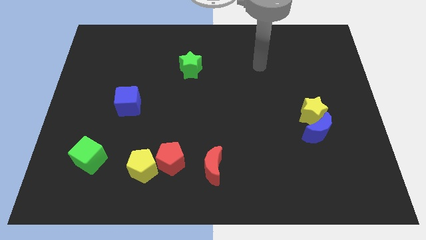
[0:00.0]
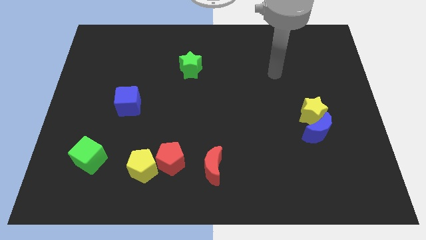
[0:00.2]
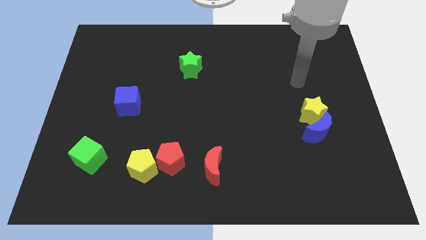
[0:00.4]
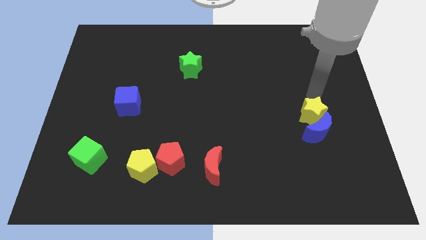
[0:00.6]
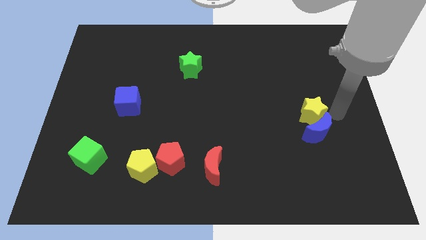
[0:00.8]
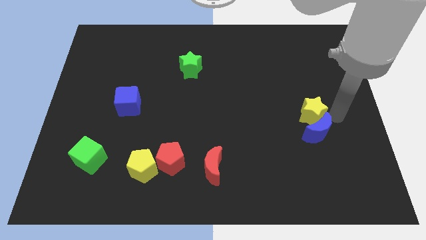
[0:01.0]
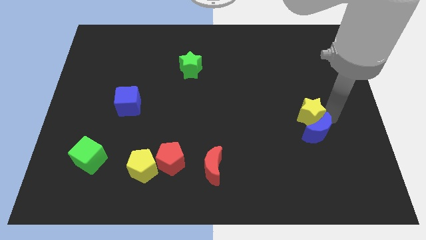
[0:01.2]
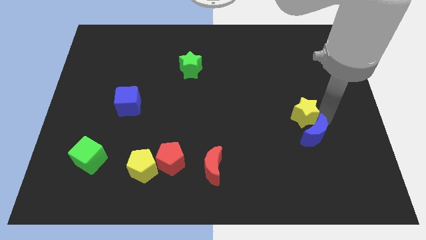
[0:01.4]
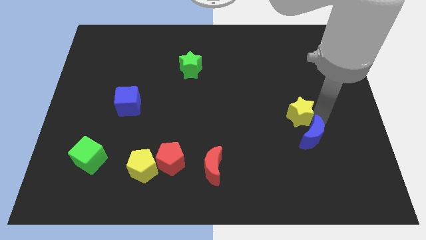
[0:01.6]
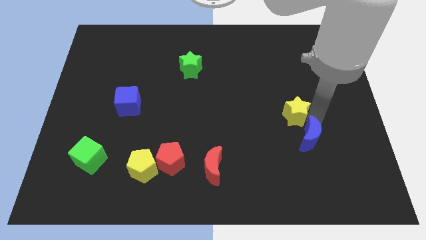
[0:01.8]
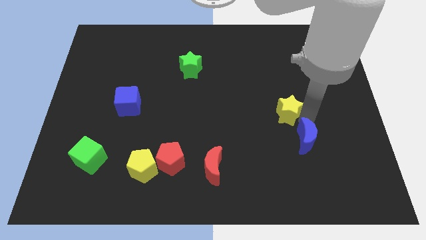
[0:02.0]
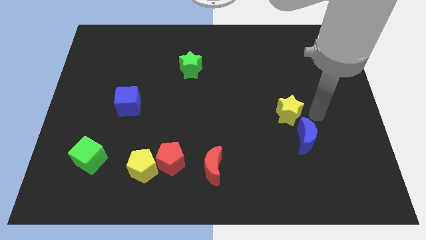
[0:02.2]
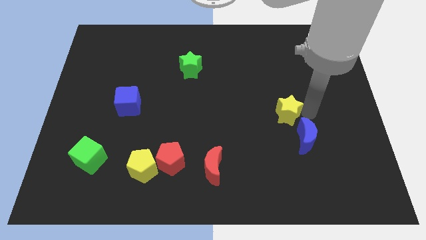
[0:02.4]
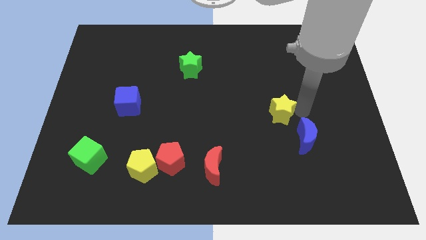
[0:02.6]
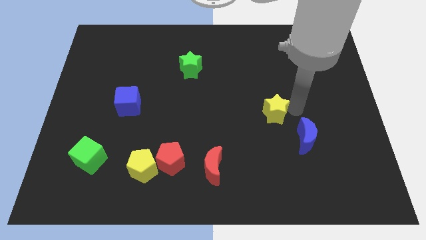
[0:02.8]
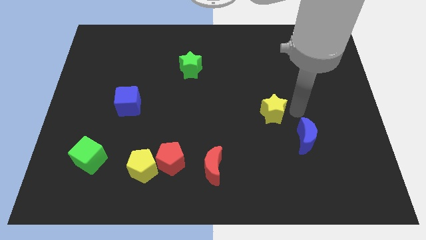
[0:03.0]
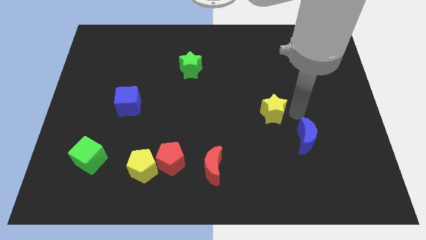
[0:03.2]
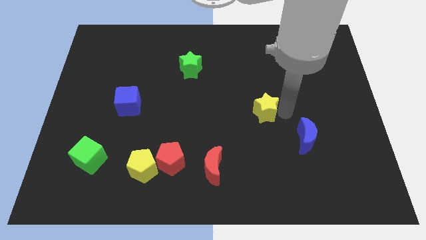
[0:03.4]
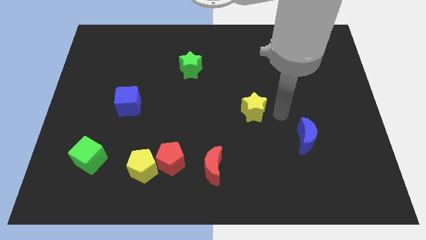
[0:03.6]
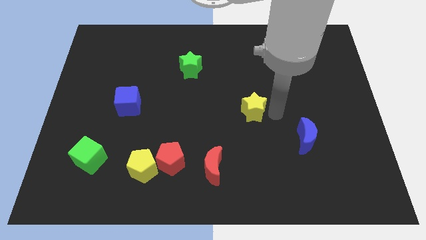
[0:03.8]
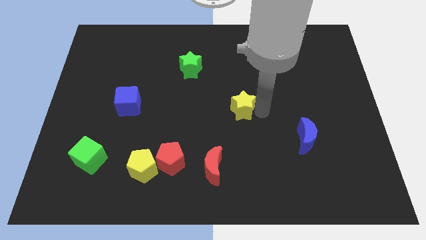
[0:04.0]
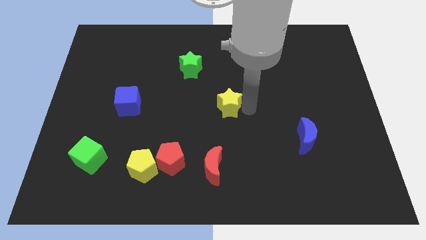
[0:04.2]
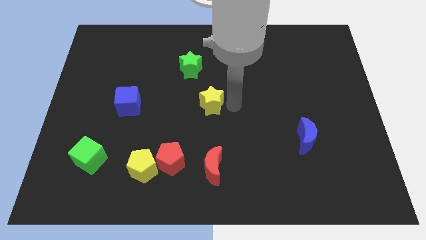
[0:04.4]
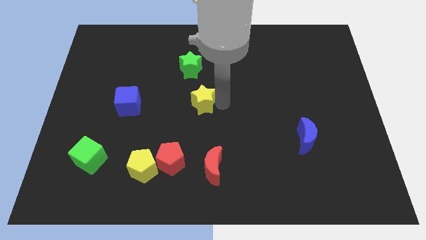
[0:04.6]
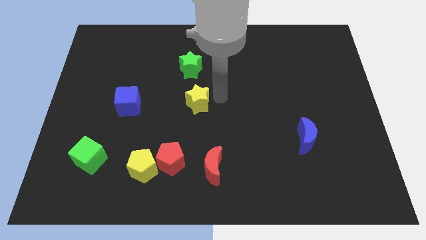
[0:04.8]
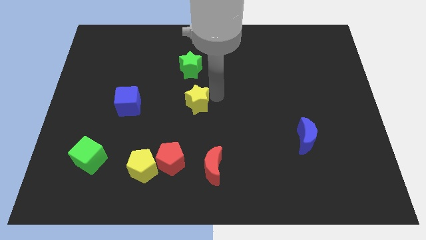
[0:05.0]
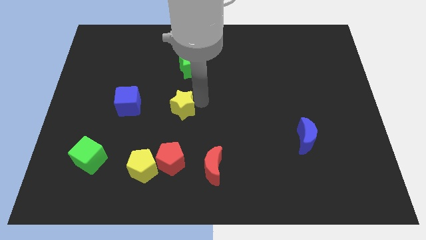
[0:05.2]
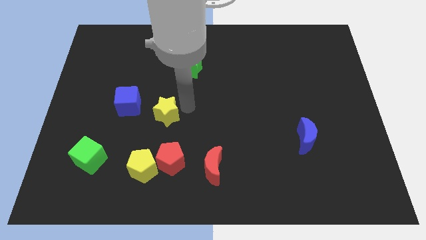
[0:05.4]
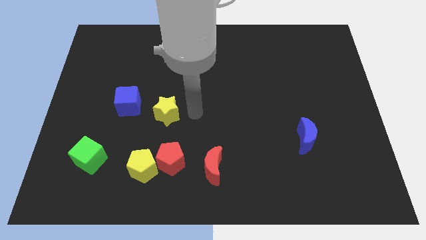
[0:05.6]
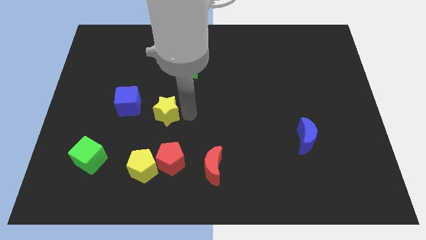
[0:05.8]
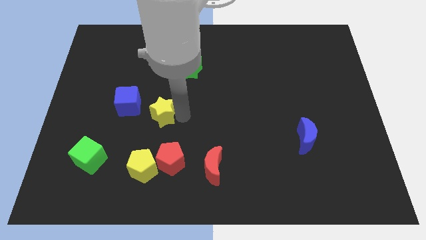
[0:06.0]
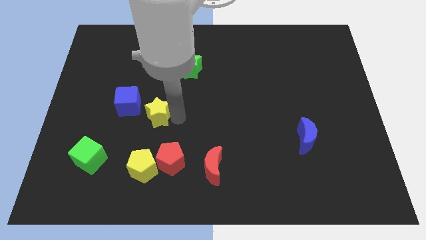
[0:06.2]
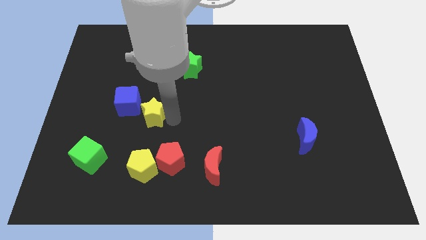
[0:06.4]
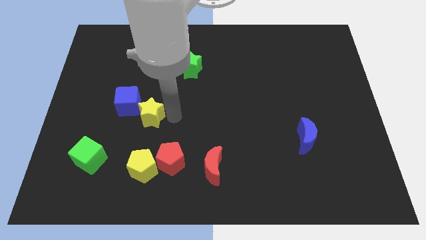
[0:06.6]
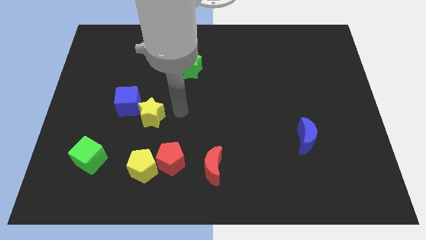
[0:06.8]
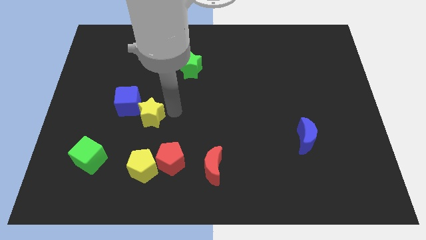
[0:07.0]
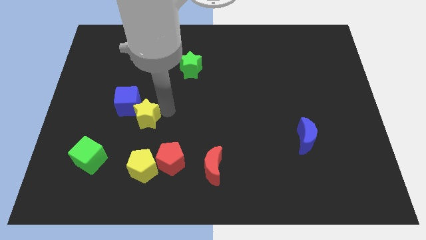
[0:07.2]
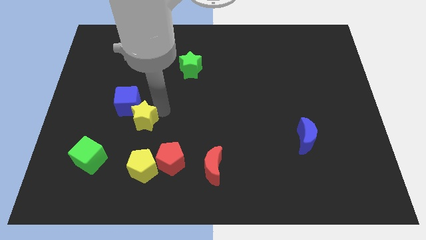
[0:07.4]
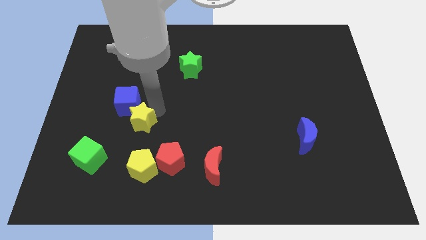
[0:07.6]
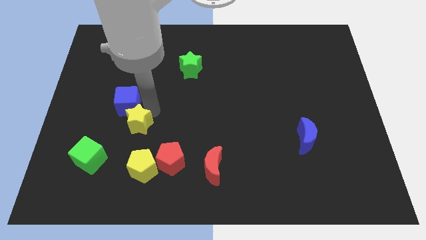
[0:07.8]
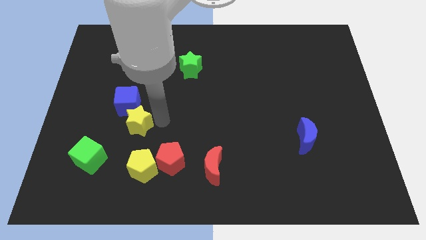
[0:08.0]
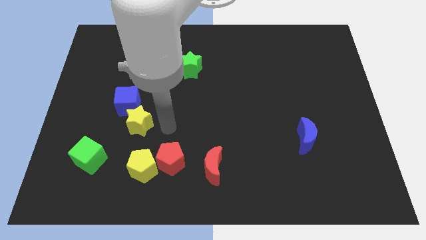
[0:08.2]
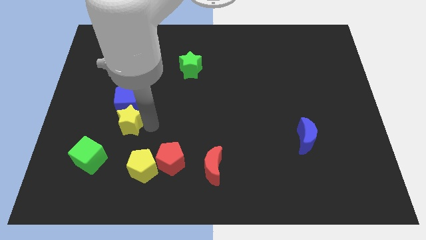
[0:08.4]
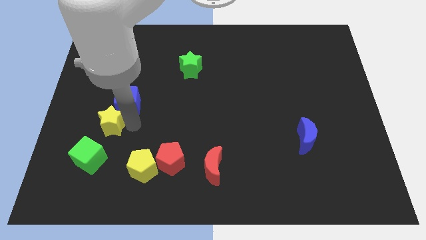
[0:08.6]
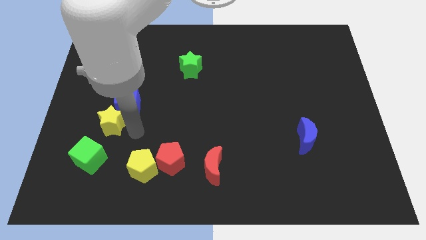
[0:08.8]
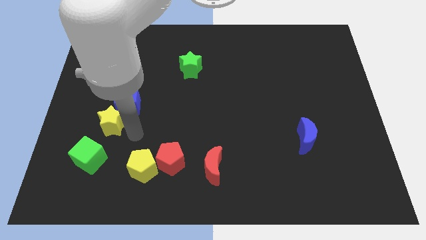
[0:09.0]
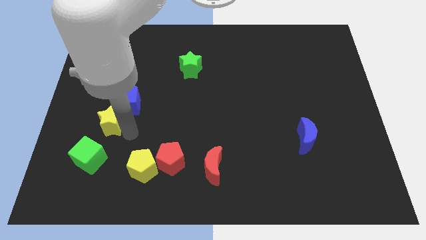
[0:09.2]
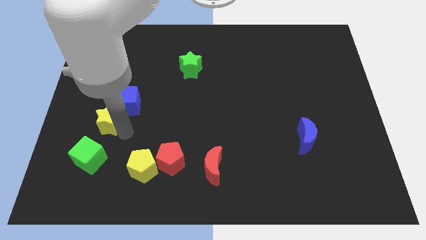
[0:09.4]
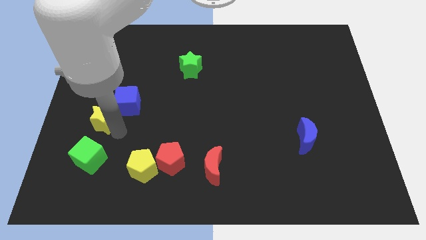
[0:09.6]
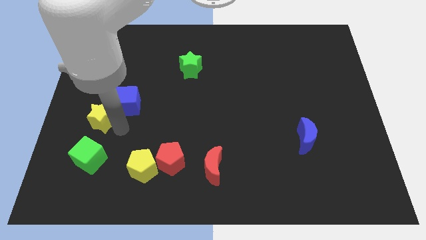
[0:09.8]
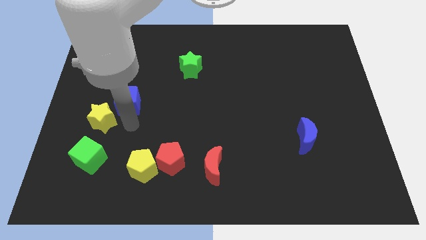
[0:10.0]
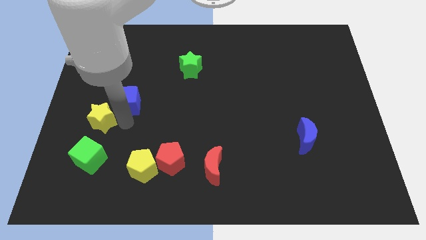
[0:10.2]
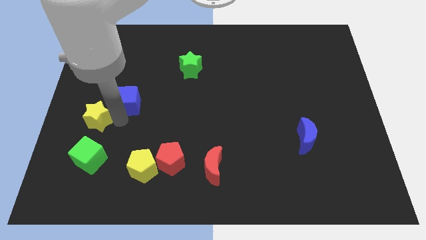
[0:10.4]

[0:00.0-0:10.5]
move the yellow star to the center left

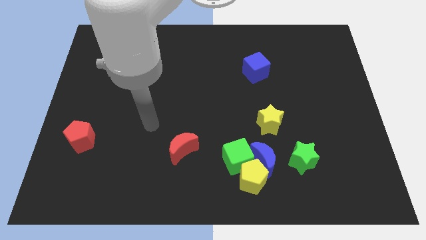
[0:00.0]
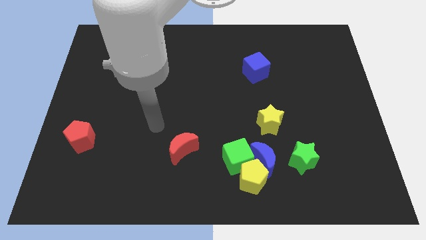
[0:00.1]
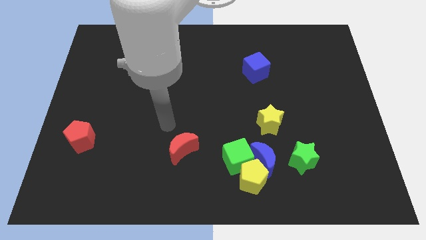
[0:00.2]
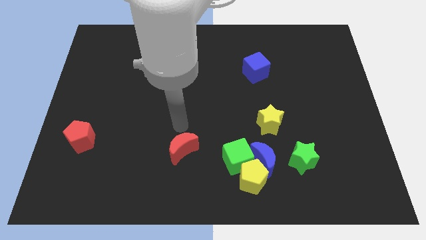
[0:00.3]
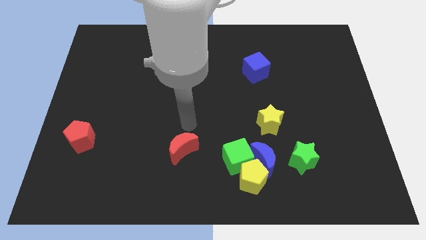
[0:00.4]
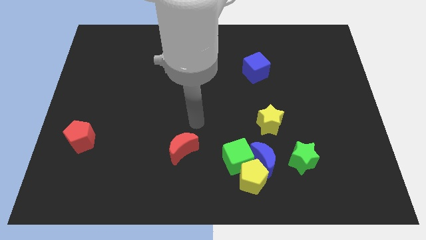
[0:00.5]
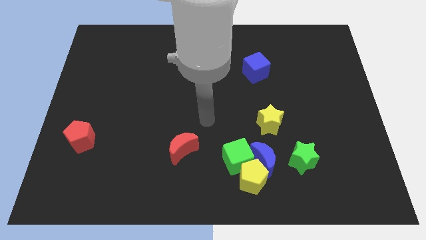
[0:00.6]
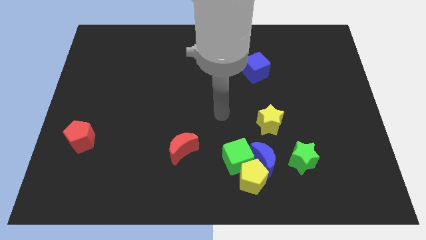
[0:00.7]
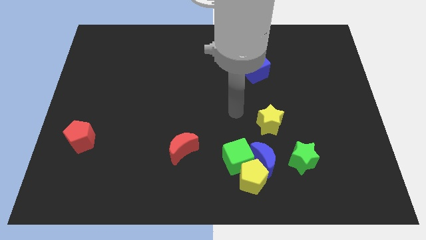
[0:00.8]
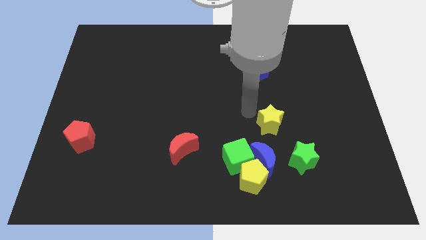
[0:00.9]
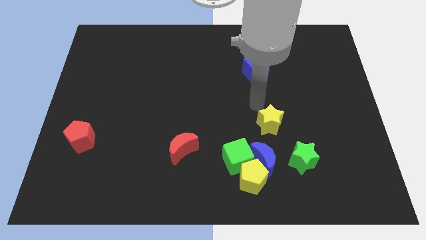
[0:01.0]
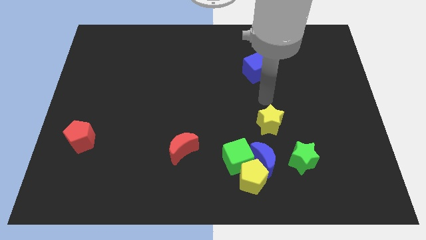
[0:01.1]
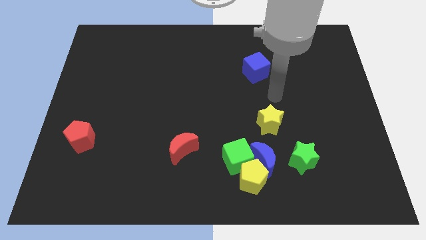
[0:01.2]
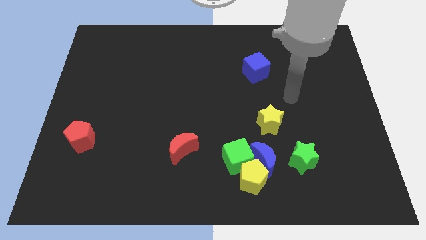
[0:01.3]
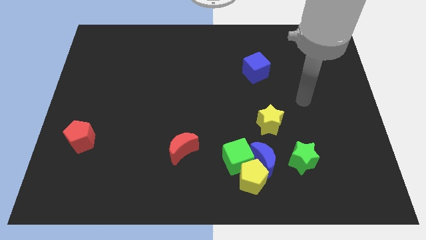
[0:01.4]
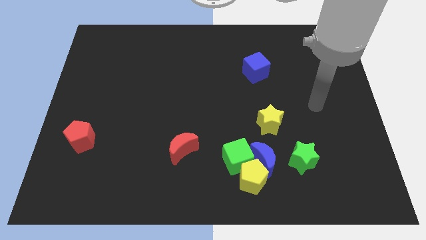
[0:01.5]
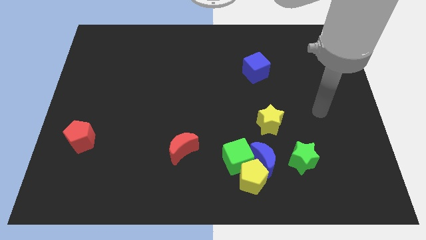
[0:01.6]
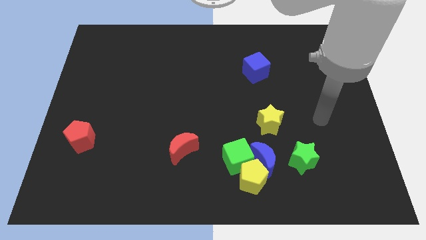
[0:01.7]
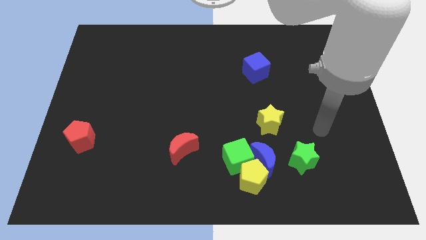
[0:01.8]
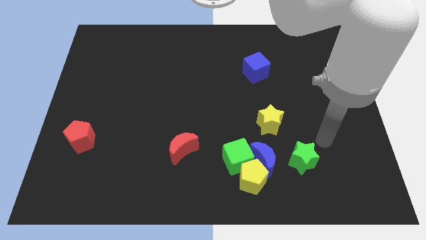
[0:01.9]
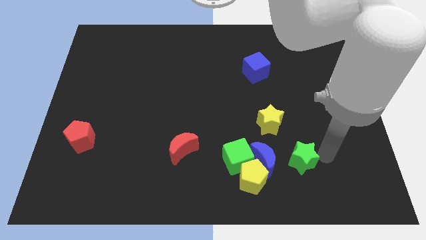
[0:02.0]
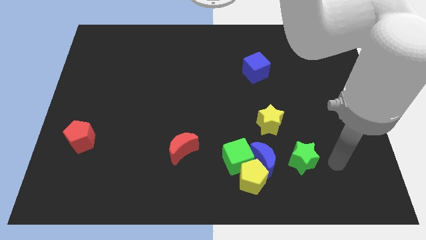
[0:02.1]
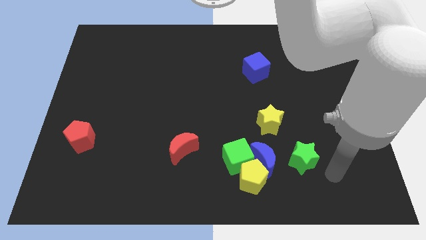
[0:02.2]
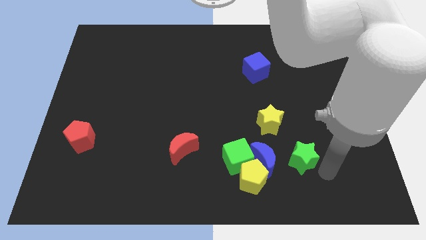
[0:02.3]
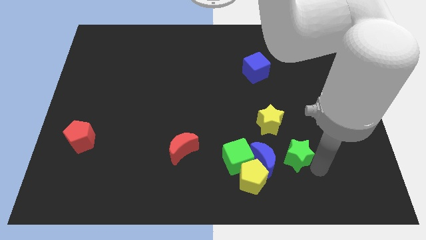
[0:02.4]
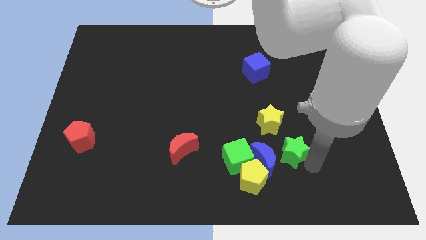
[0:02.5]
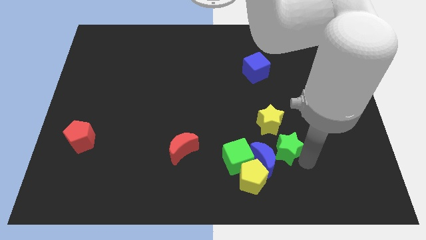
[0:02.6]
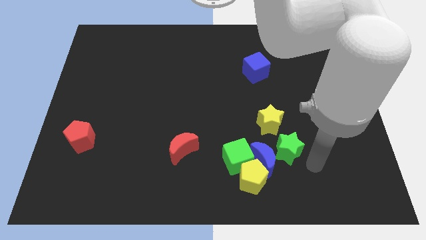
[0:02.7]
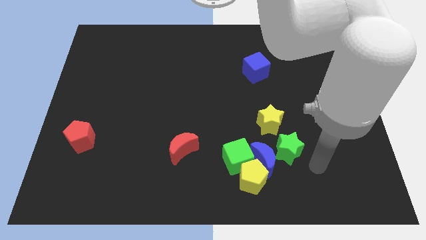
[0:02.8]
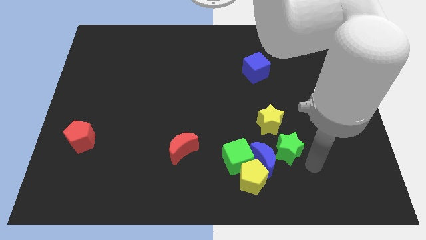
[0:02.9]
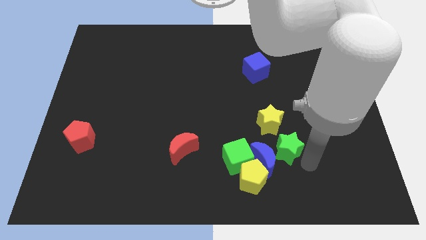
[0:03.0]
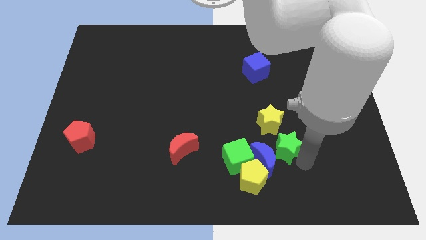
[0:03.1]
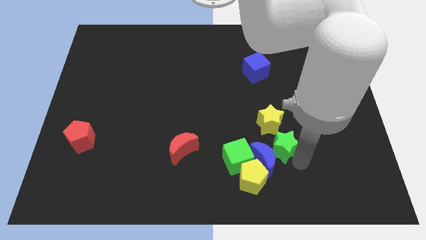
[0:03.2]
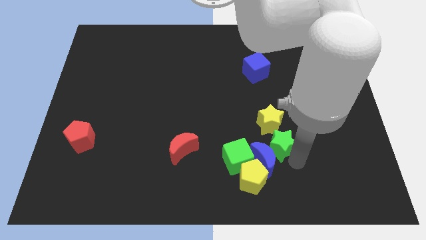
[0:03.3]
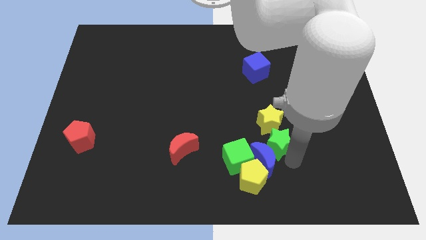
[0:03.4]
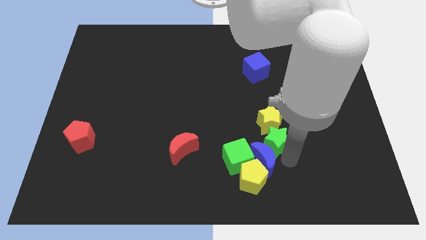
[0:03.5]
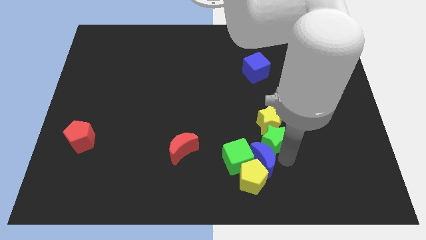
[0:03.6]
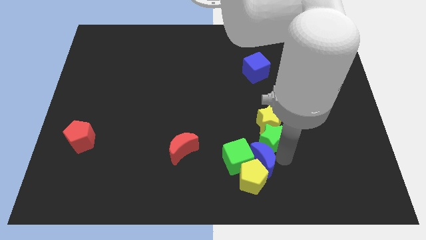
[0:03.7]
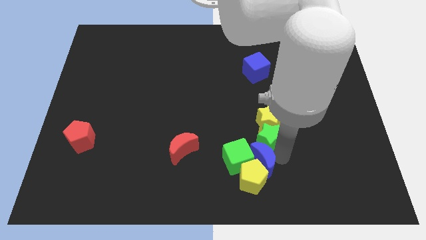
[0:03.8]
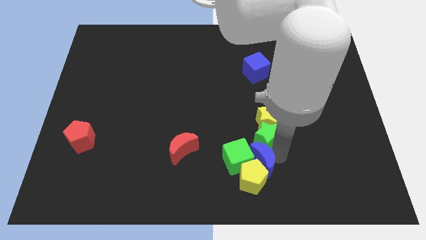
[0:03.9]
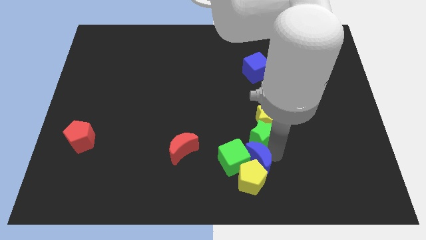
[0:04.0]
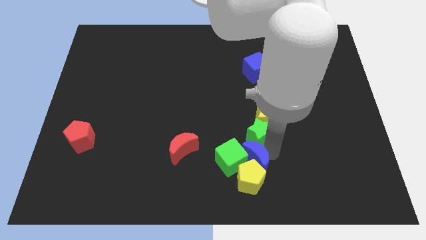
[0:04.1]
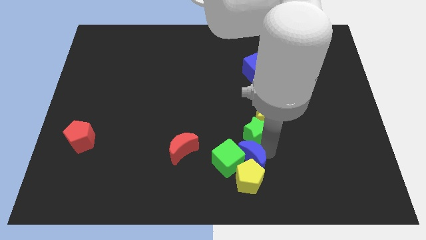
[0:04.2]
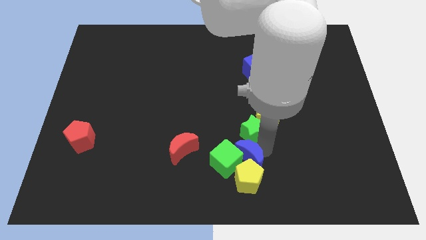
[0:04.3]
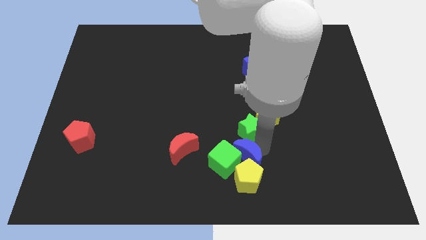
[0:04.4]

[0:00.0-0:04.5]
slide the green star to the center of the board
